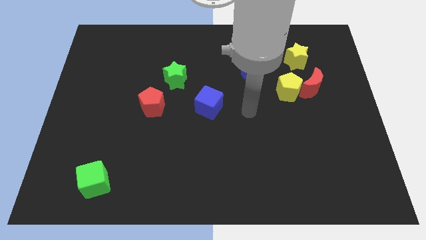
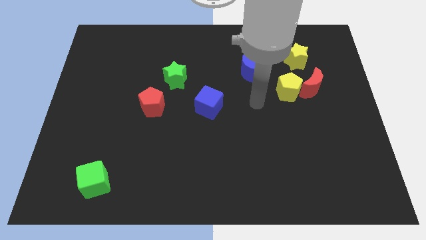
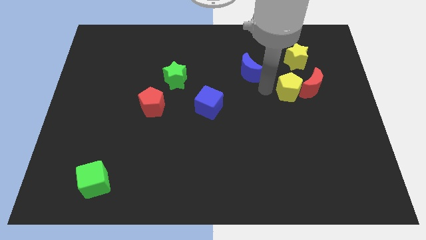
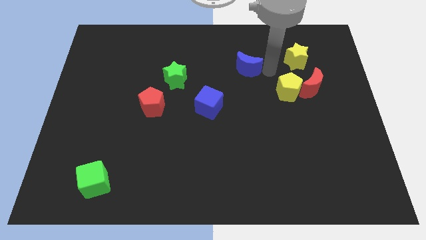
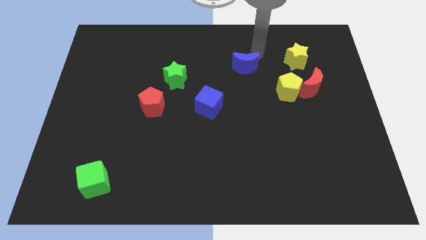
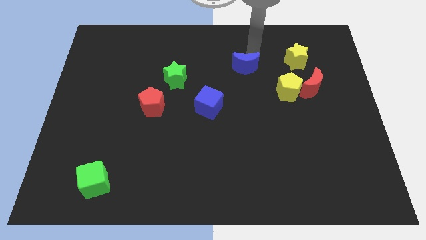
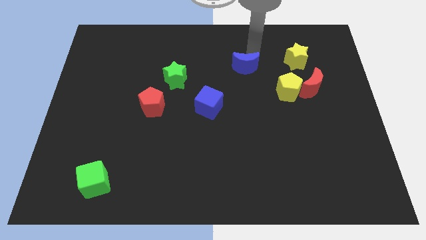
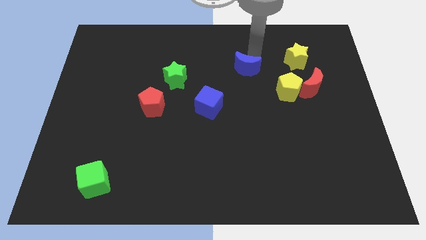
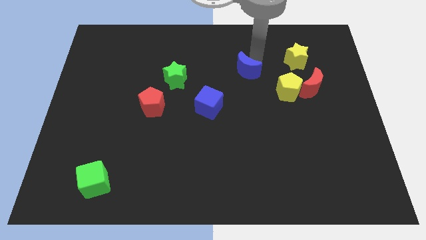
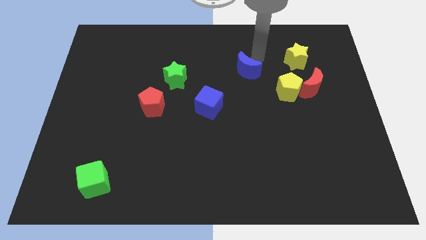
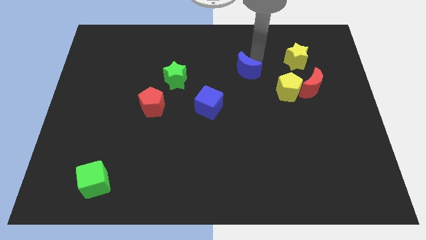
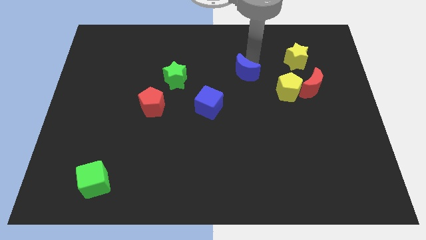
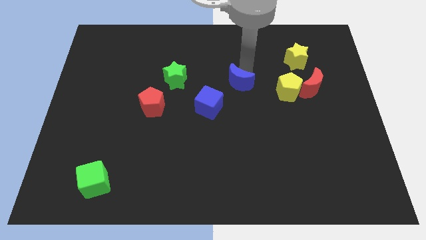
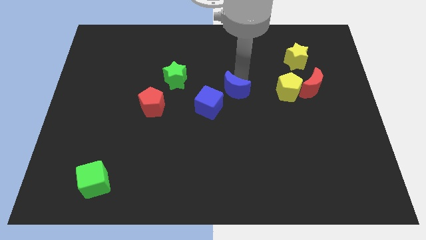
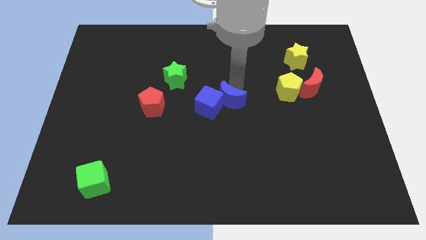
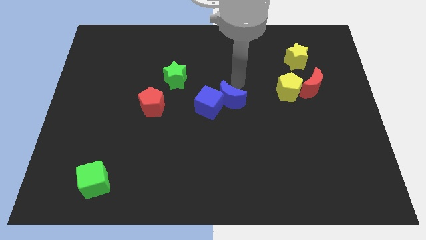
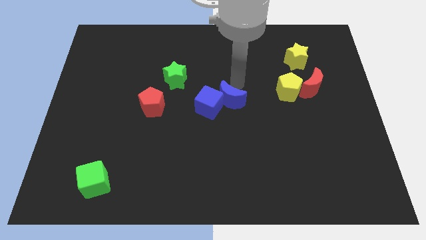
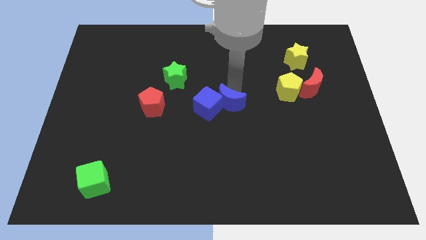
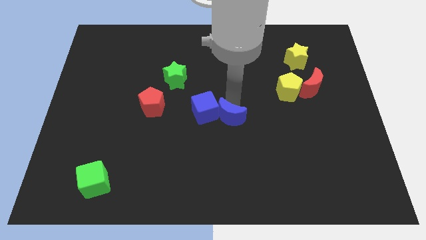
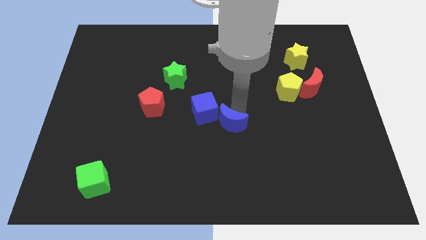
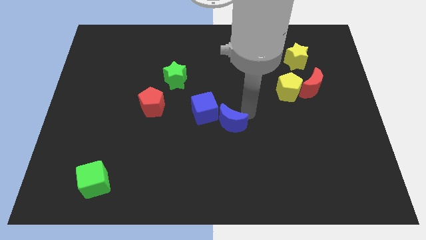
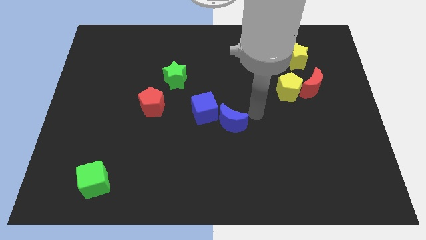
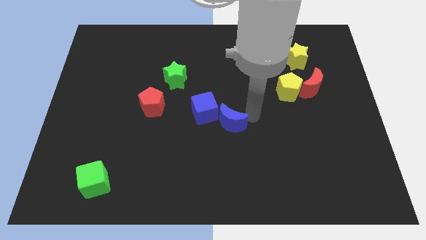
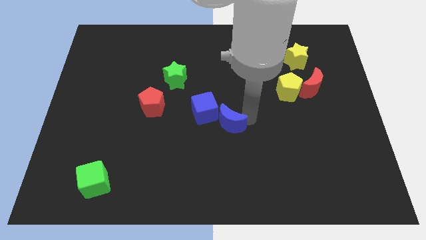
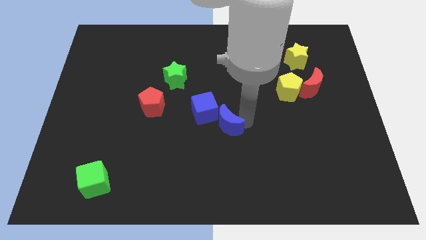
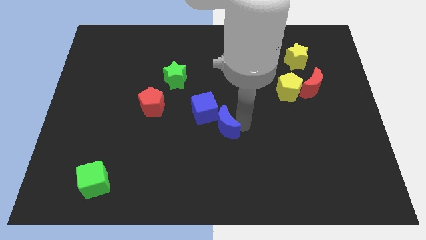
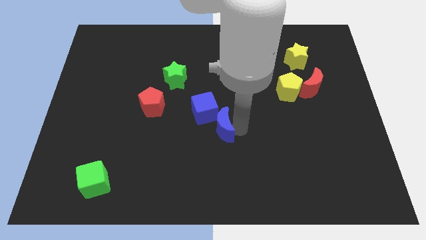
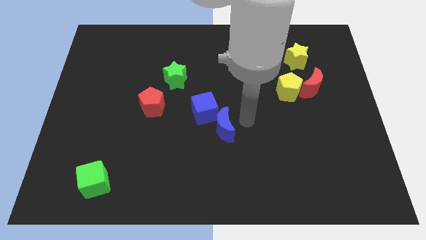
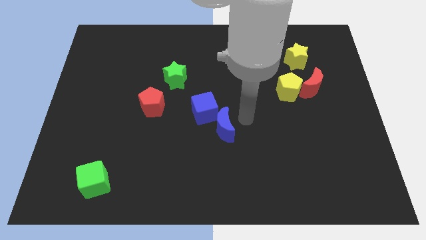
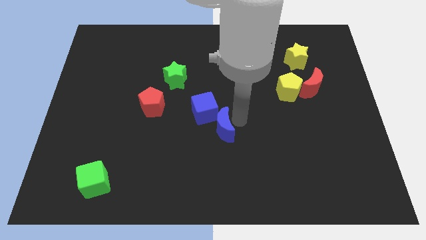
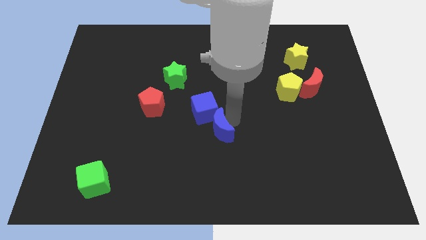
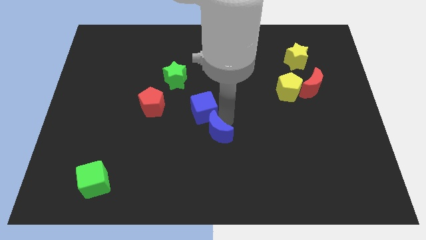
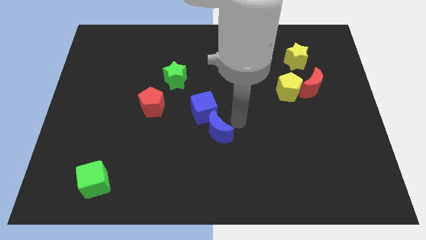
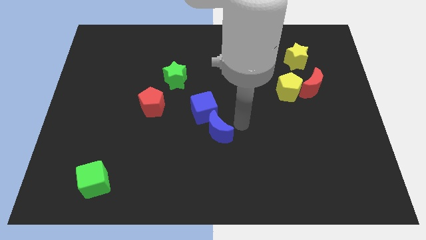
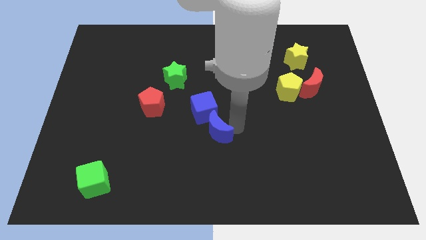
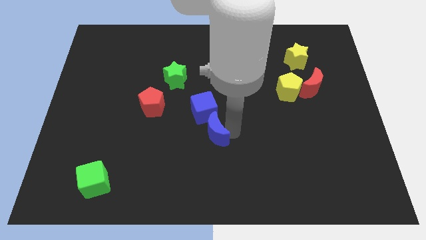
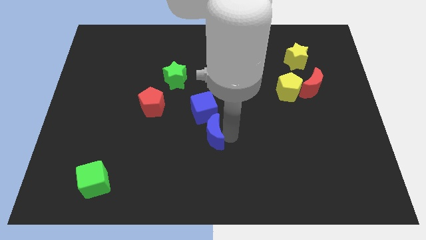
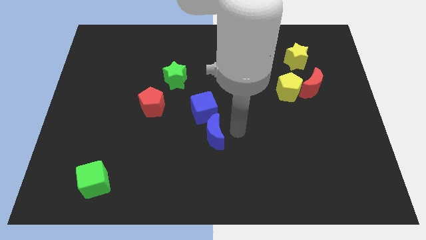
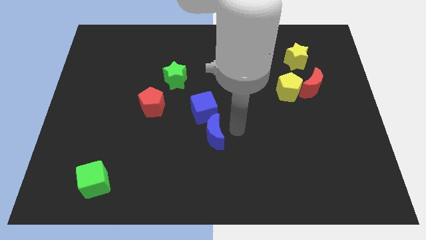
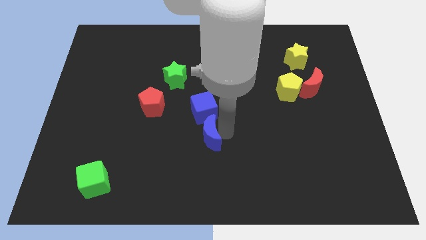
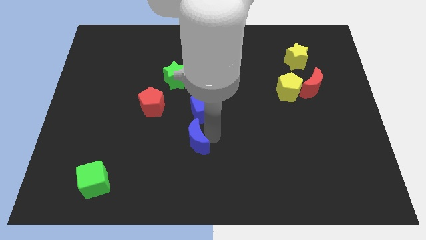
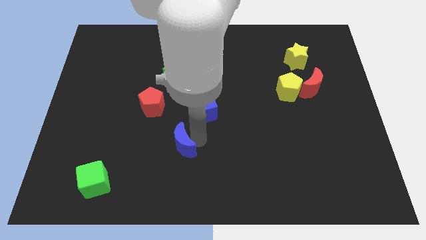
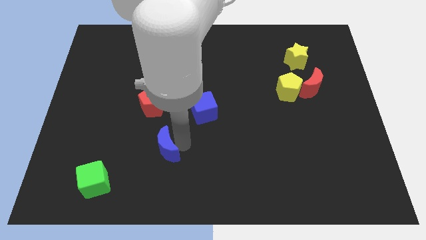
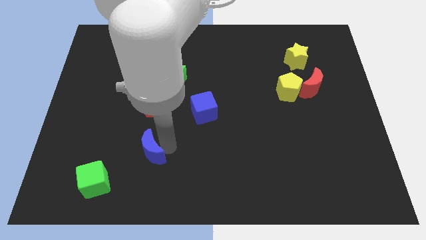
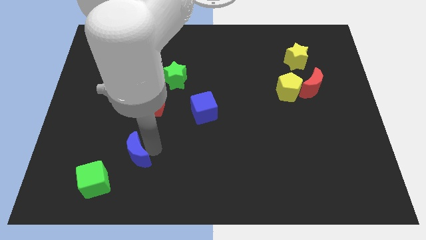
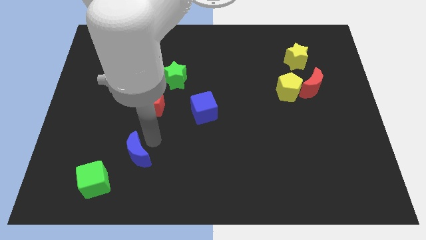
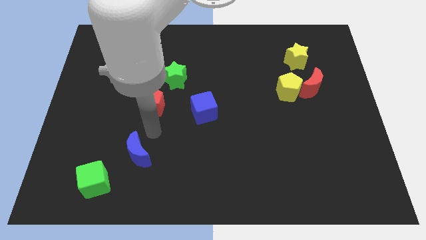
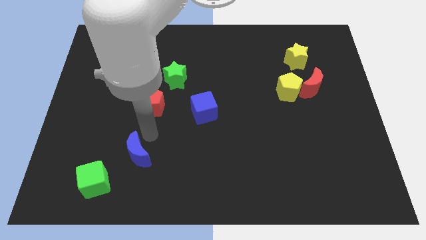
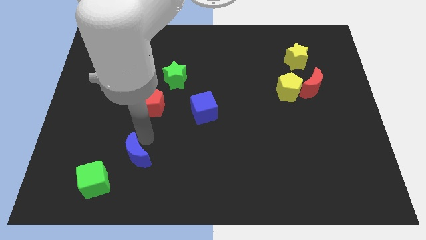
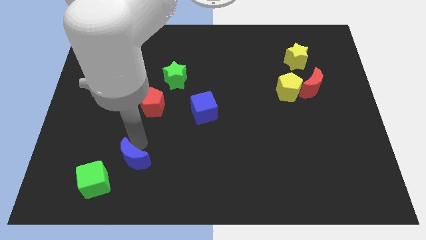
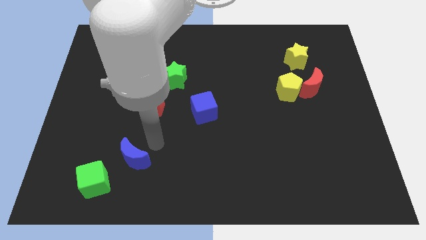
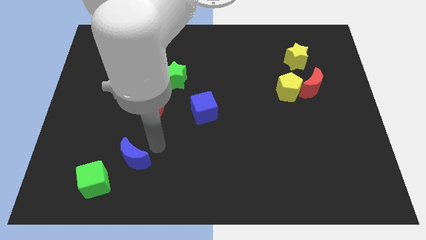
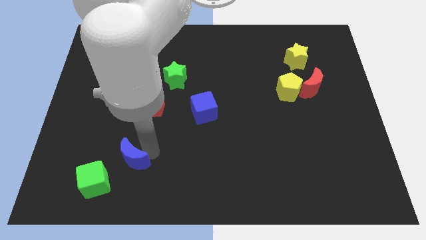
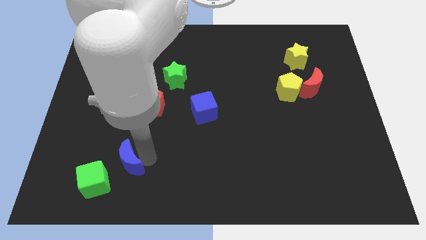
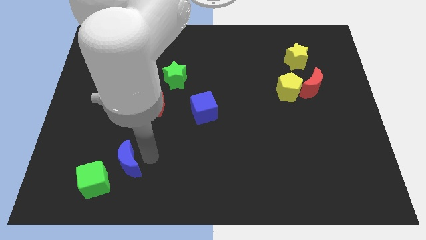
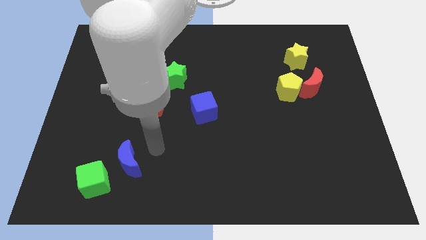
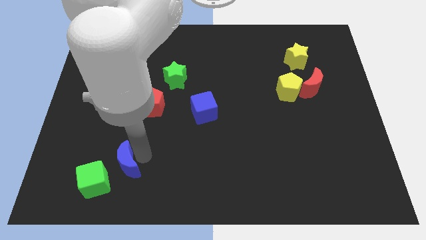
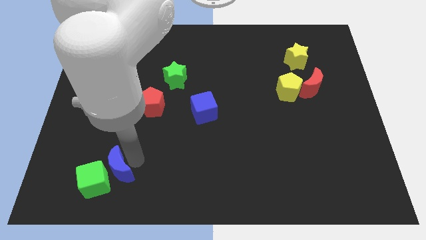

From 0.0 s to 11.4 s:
put the blue moon next to the green cube
